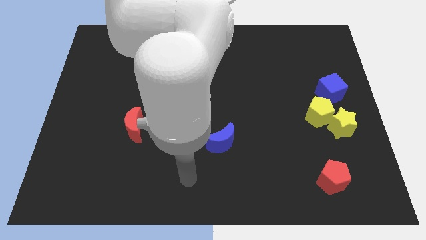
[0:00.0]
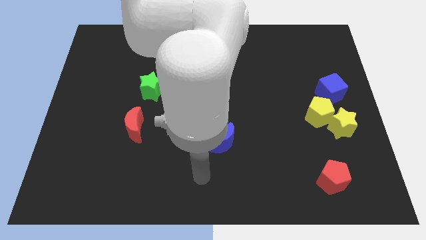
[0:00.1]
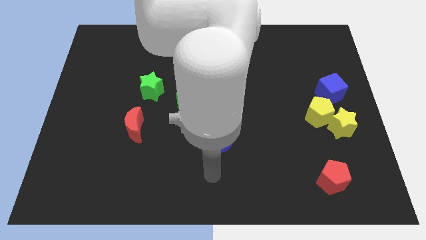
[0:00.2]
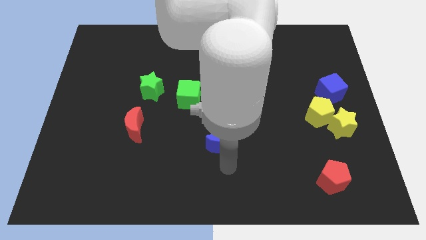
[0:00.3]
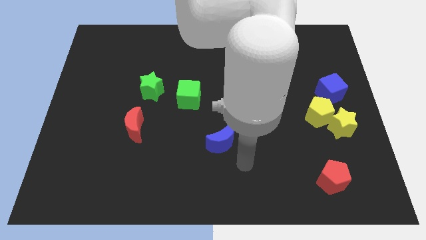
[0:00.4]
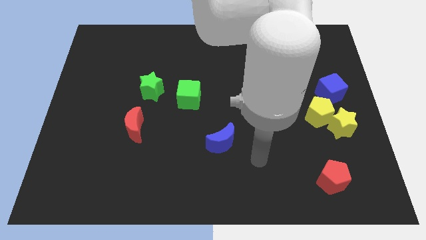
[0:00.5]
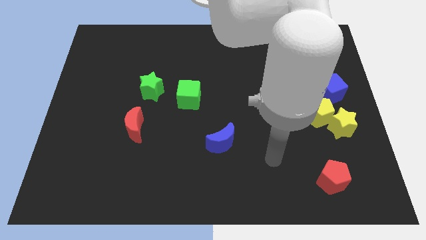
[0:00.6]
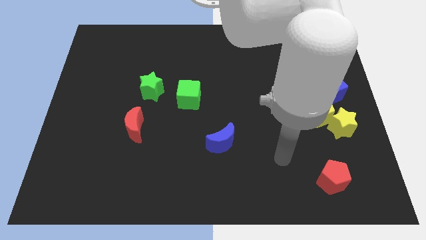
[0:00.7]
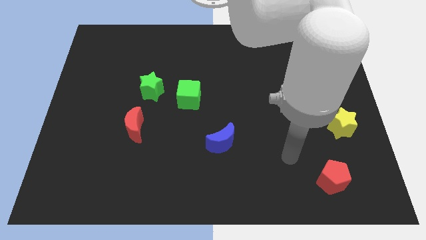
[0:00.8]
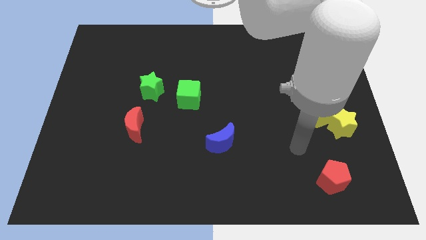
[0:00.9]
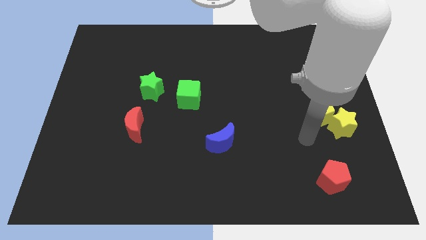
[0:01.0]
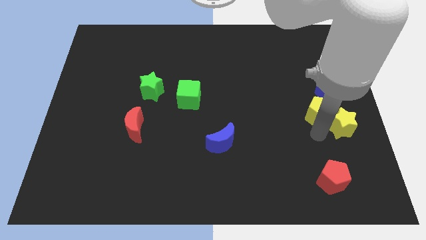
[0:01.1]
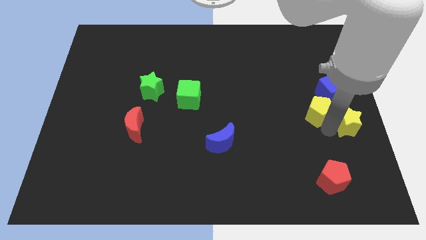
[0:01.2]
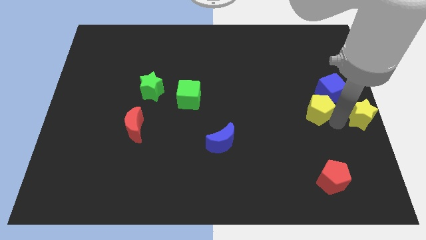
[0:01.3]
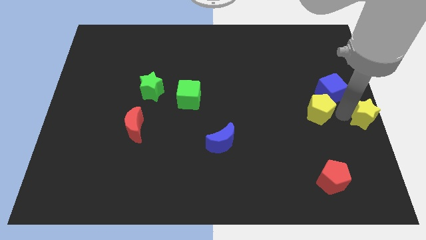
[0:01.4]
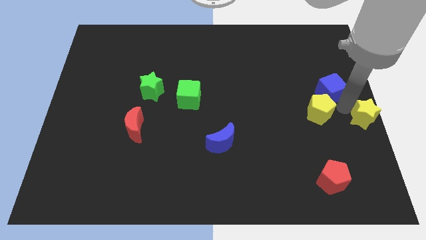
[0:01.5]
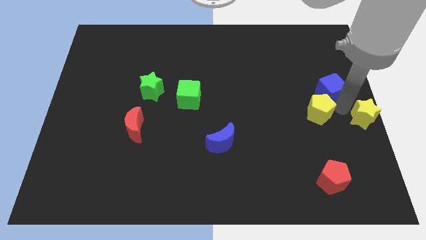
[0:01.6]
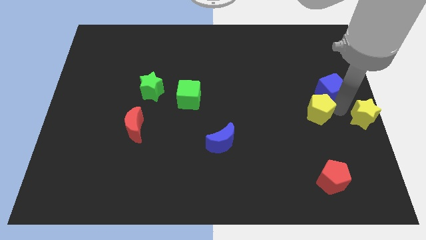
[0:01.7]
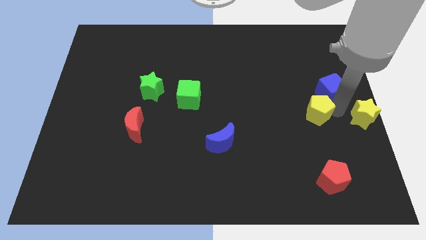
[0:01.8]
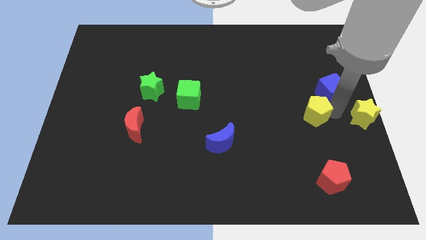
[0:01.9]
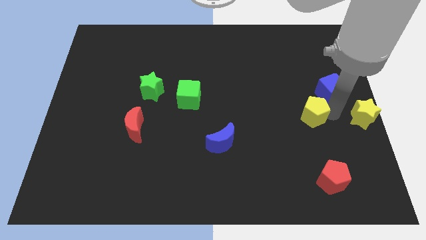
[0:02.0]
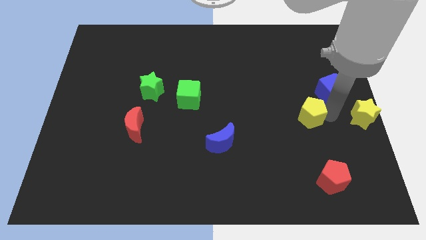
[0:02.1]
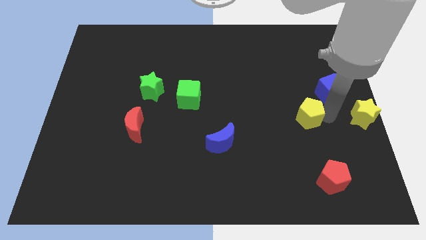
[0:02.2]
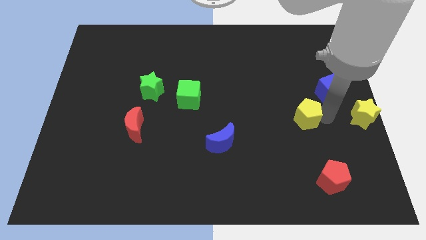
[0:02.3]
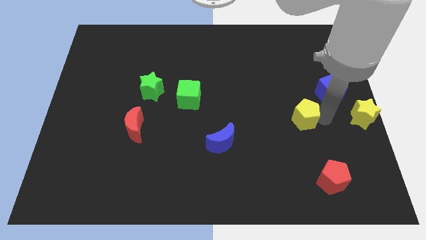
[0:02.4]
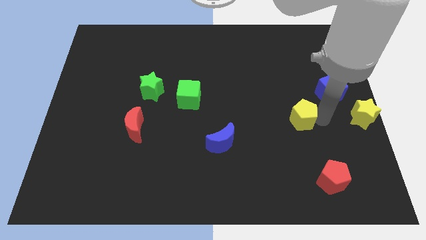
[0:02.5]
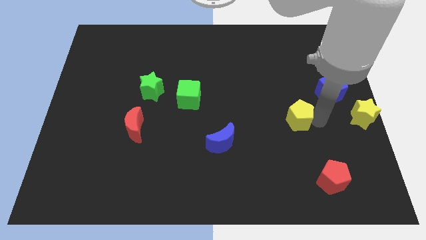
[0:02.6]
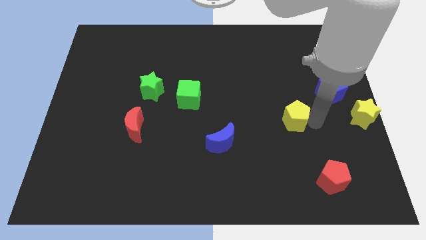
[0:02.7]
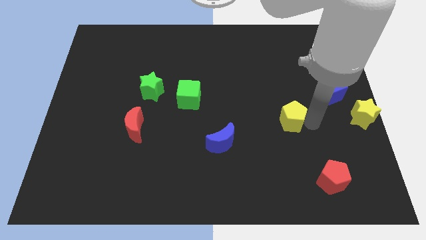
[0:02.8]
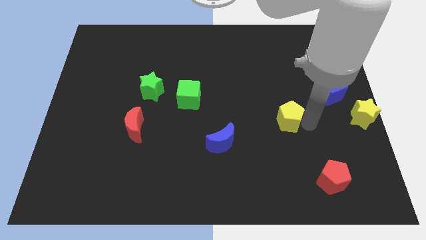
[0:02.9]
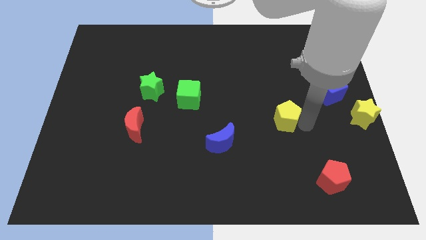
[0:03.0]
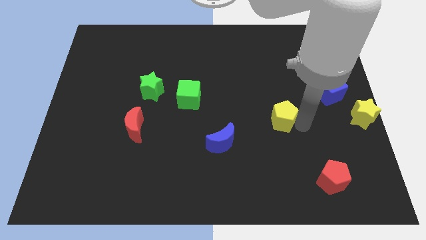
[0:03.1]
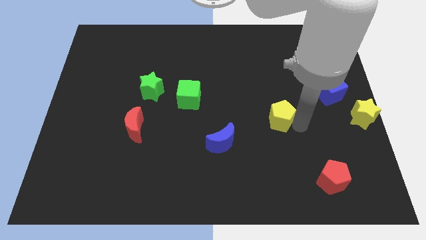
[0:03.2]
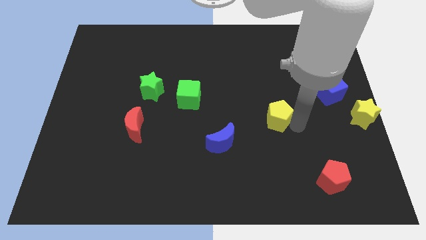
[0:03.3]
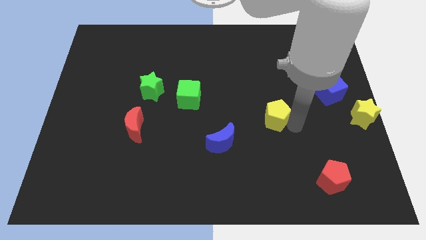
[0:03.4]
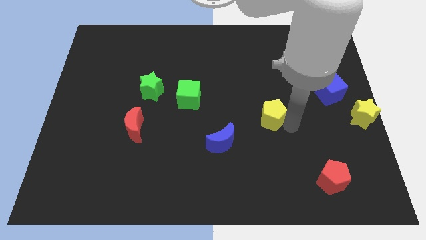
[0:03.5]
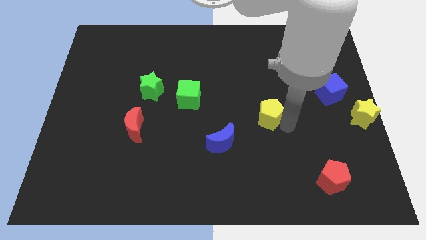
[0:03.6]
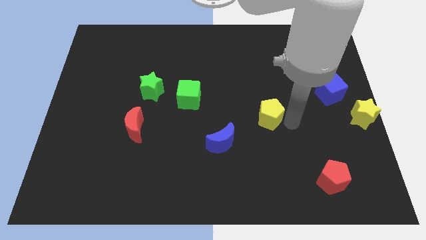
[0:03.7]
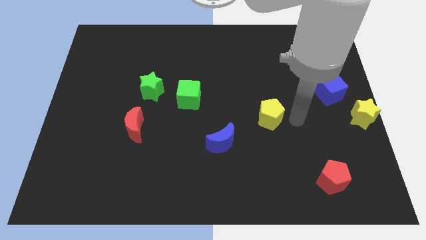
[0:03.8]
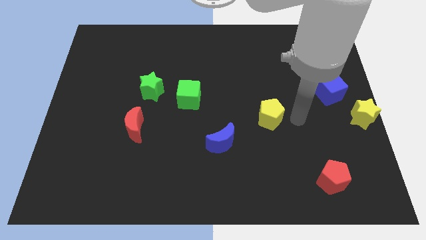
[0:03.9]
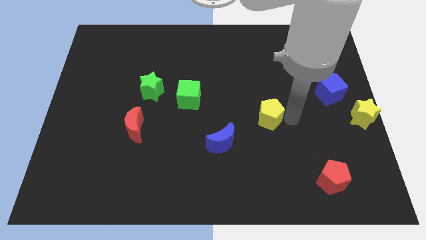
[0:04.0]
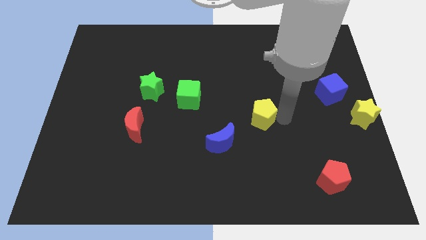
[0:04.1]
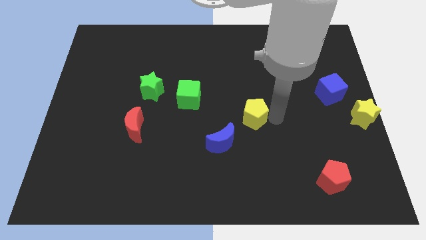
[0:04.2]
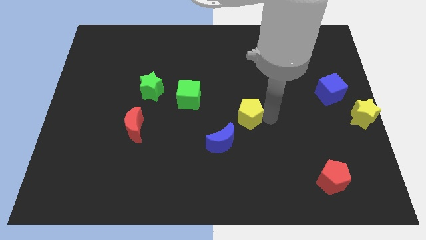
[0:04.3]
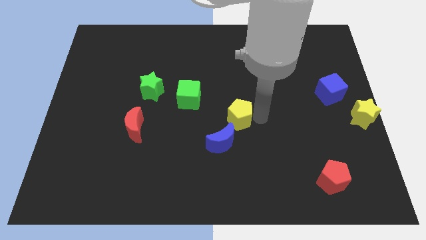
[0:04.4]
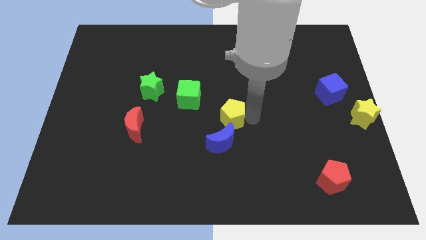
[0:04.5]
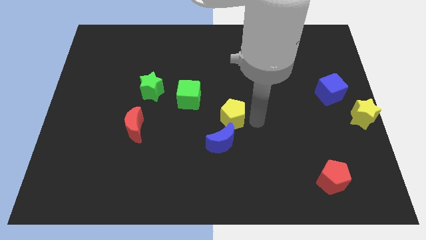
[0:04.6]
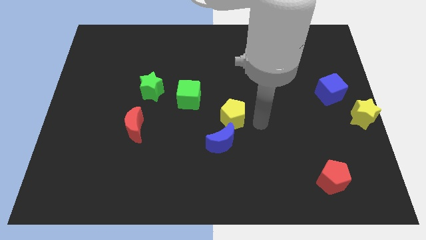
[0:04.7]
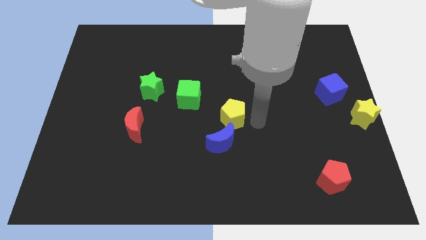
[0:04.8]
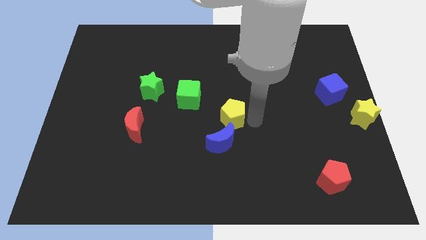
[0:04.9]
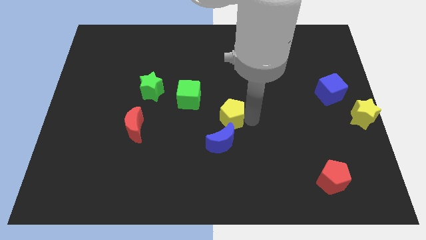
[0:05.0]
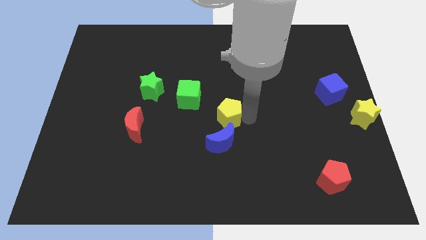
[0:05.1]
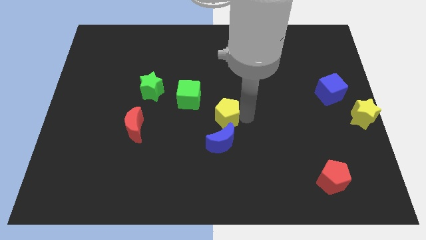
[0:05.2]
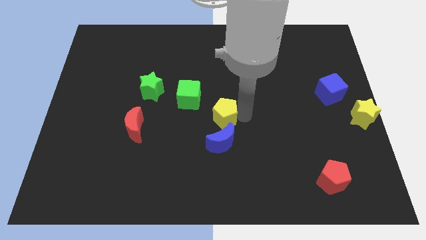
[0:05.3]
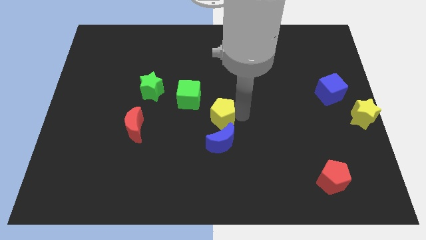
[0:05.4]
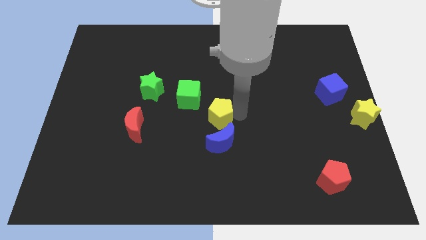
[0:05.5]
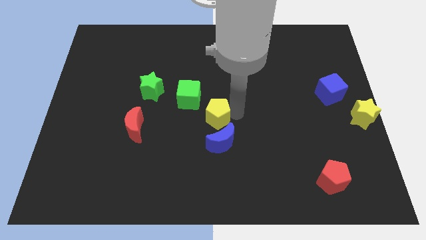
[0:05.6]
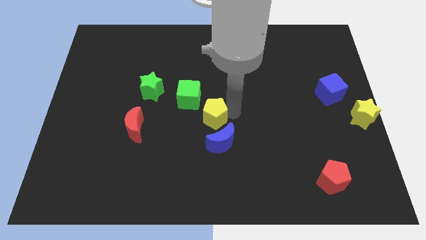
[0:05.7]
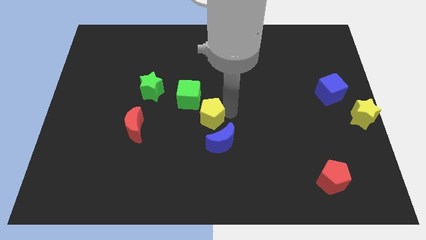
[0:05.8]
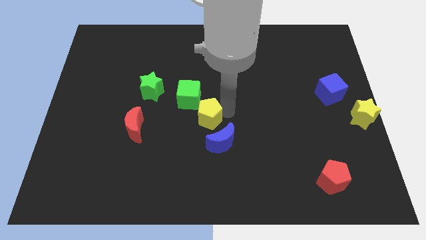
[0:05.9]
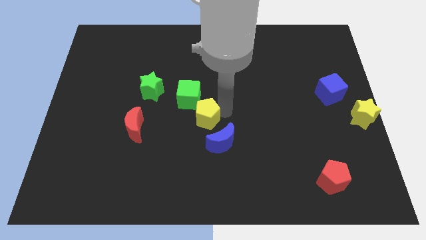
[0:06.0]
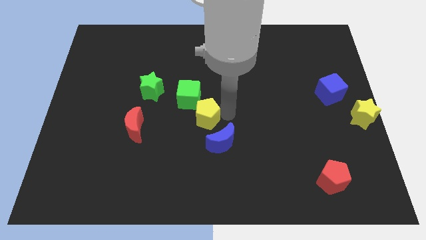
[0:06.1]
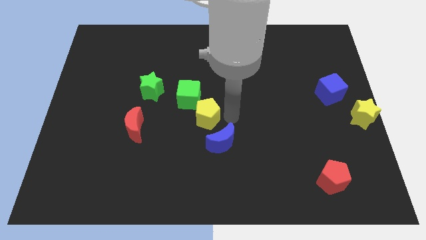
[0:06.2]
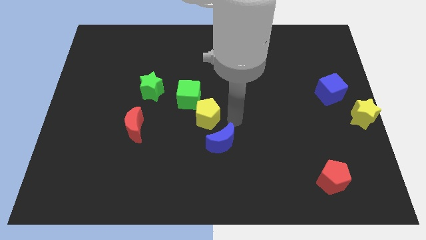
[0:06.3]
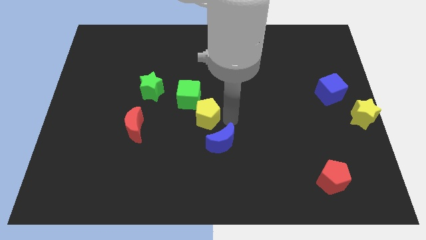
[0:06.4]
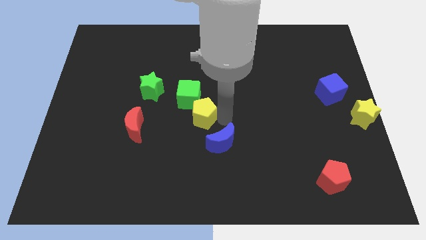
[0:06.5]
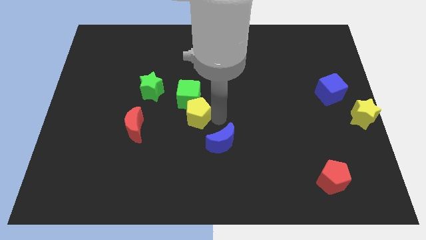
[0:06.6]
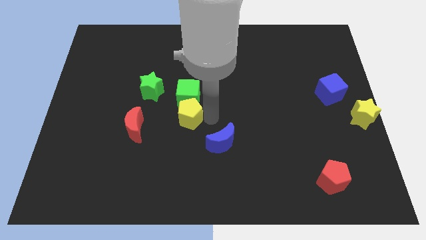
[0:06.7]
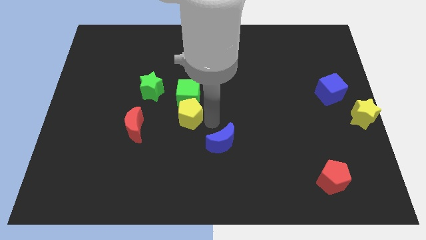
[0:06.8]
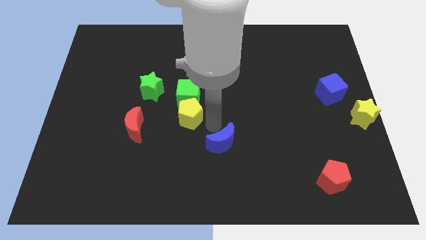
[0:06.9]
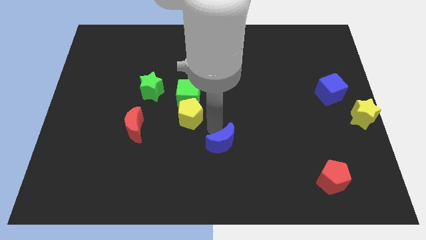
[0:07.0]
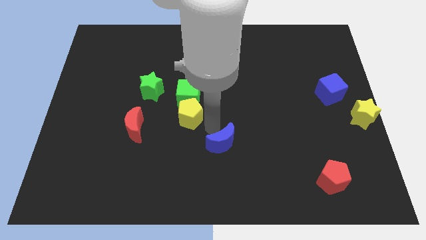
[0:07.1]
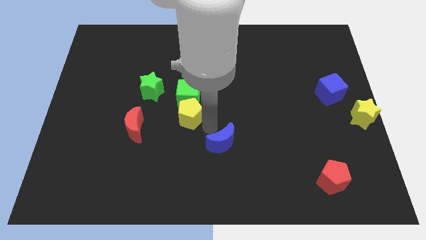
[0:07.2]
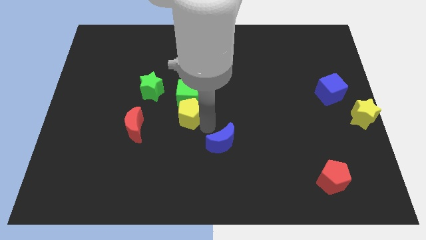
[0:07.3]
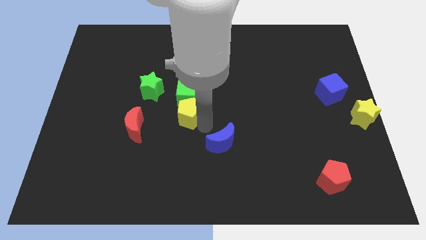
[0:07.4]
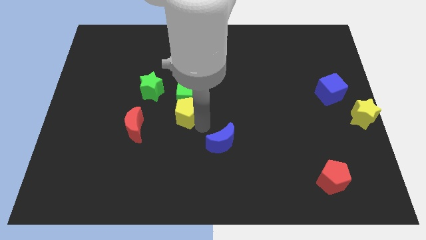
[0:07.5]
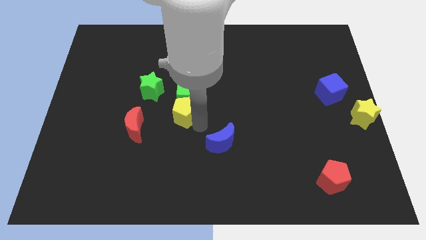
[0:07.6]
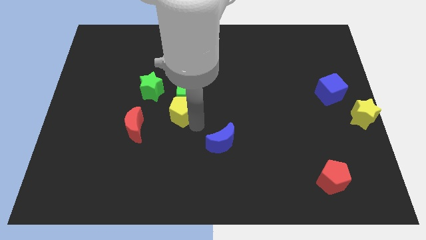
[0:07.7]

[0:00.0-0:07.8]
move the yellow pentagon to the top right of the red moon
